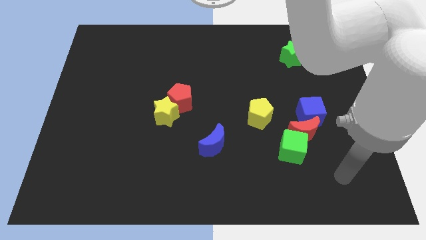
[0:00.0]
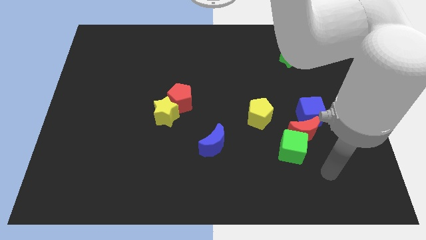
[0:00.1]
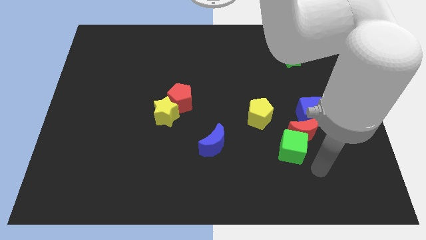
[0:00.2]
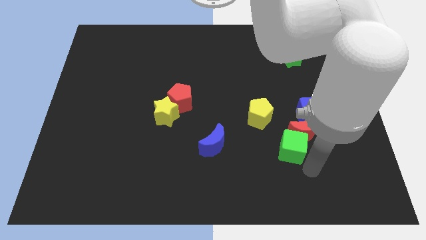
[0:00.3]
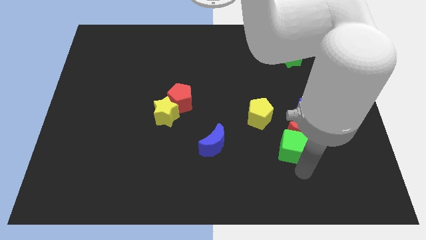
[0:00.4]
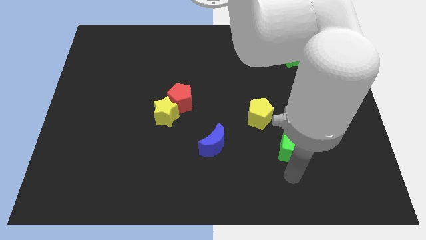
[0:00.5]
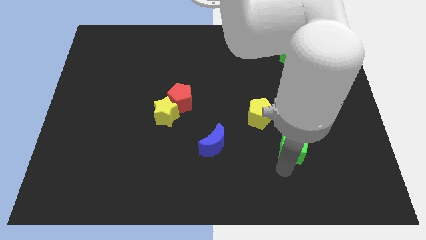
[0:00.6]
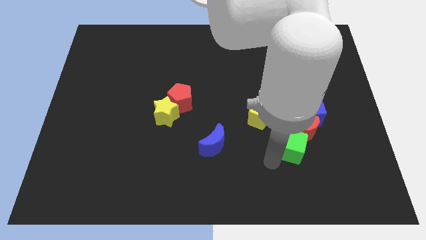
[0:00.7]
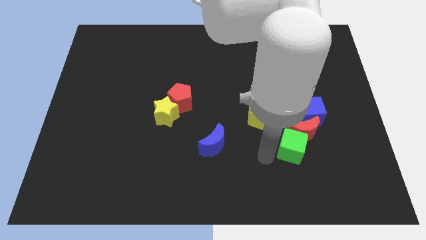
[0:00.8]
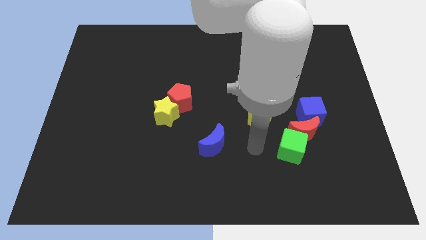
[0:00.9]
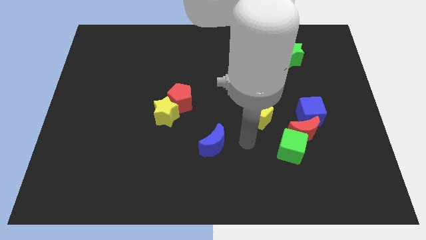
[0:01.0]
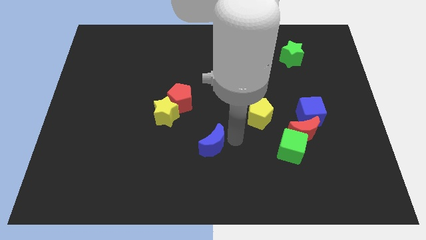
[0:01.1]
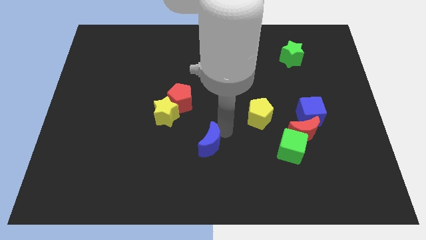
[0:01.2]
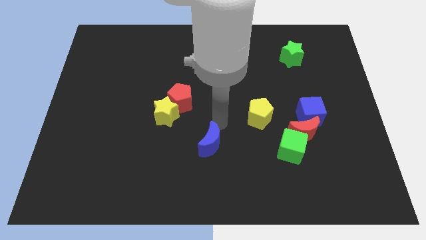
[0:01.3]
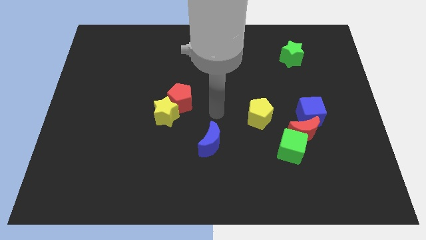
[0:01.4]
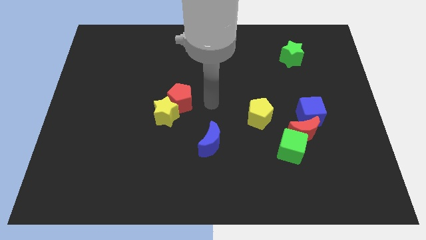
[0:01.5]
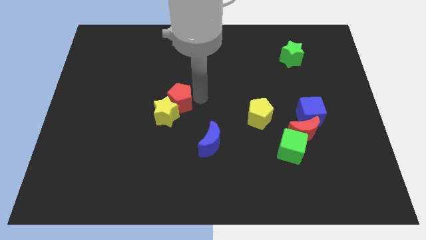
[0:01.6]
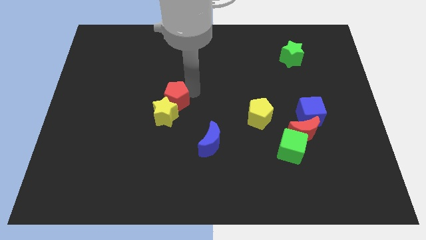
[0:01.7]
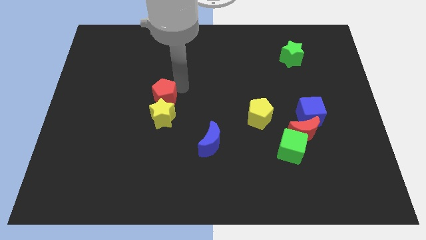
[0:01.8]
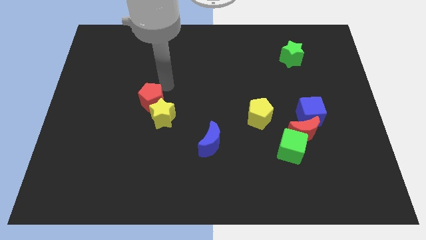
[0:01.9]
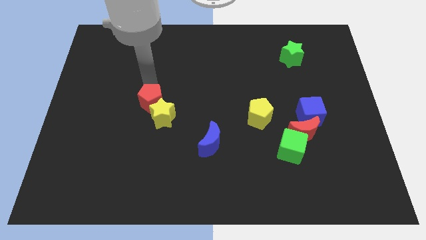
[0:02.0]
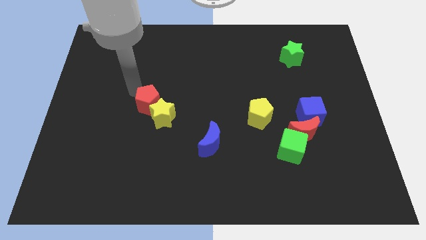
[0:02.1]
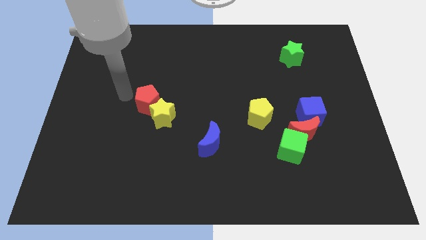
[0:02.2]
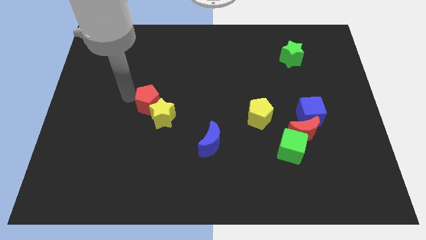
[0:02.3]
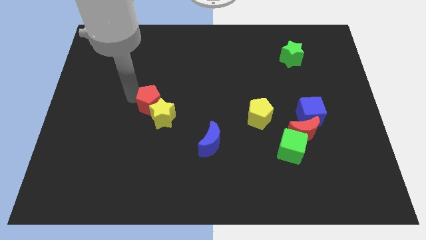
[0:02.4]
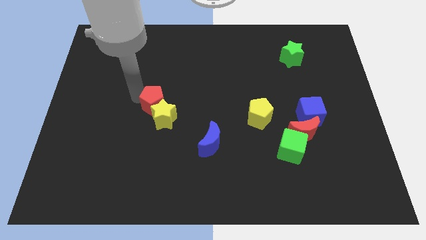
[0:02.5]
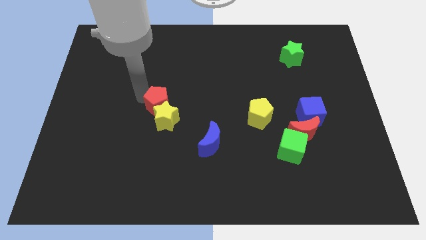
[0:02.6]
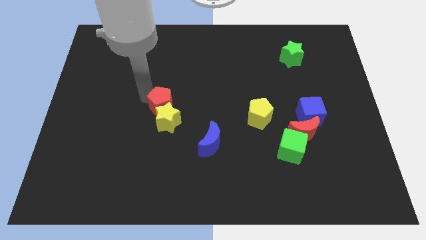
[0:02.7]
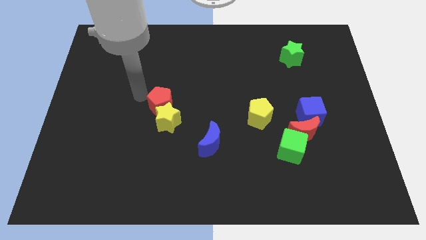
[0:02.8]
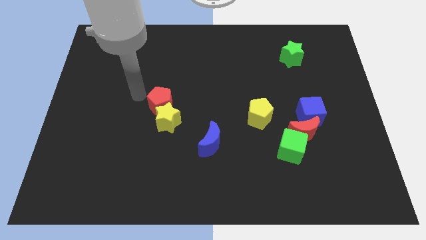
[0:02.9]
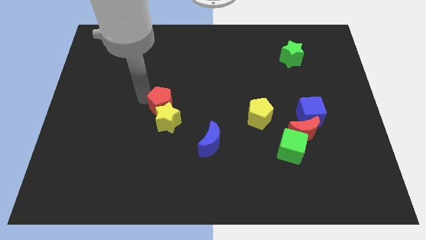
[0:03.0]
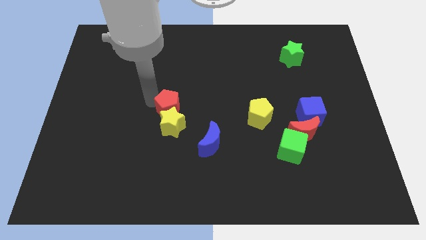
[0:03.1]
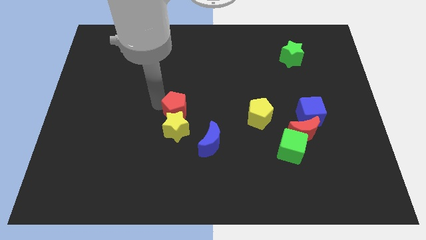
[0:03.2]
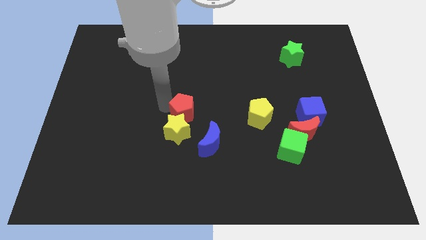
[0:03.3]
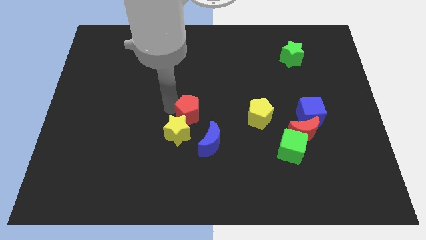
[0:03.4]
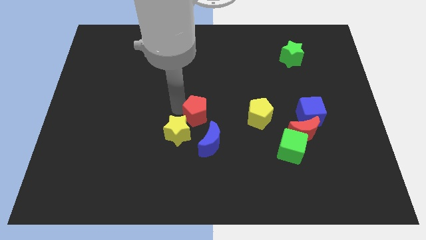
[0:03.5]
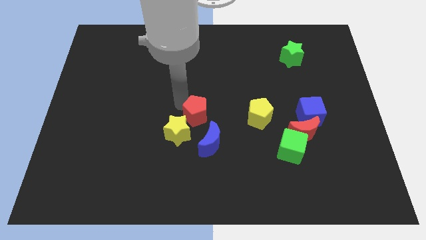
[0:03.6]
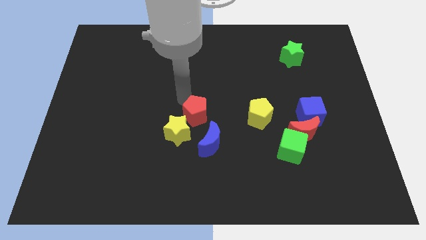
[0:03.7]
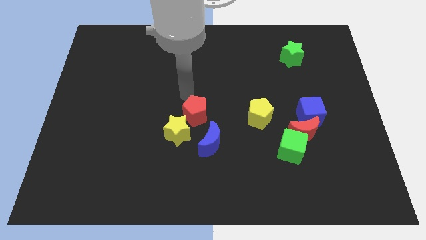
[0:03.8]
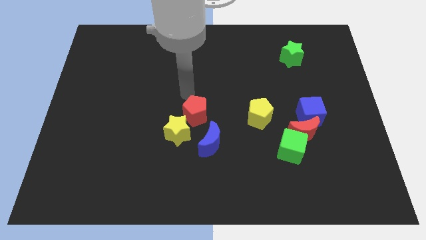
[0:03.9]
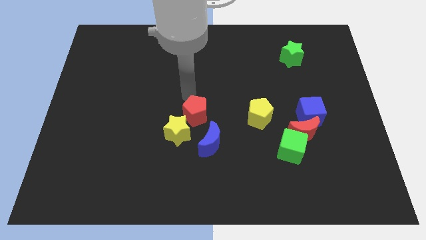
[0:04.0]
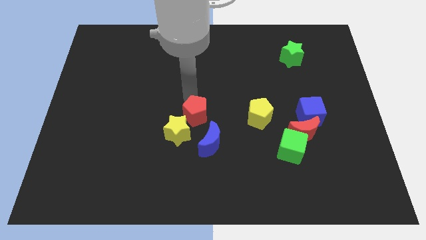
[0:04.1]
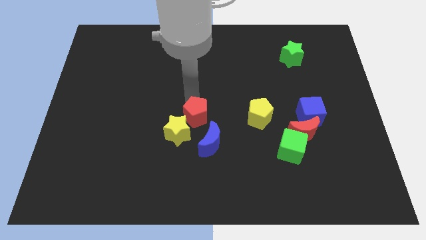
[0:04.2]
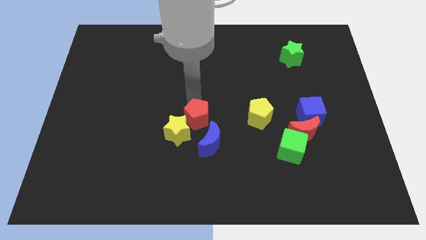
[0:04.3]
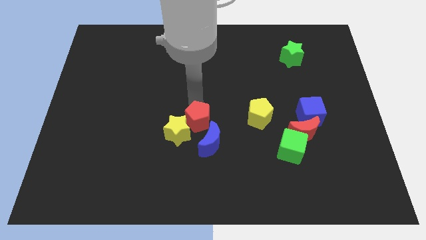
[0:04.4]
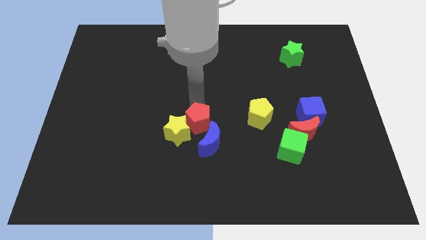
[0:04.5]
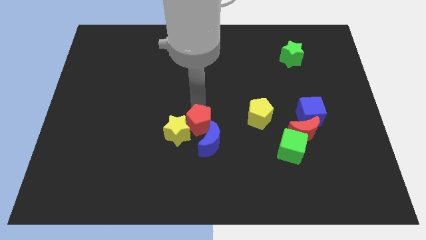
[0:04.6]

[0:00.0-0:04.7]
put the red pentagon to the blue moon

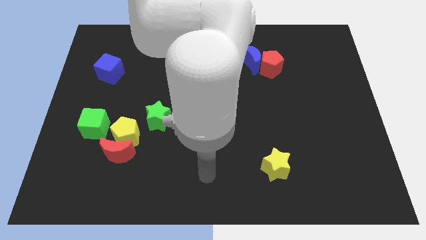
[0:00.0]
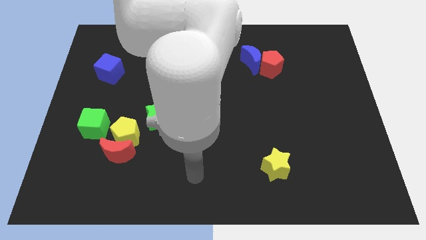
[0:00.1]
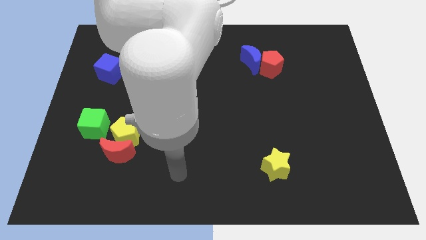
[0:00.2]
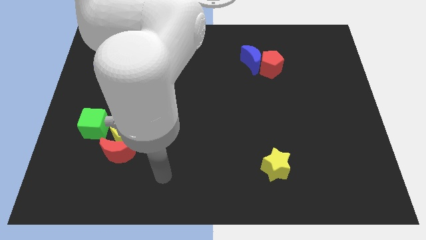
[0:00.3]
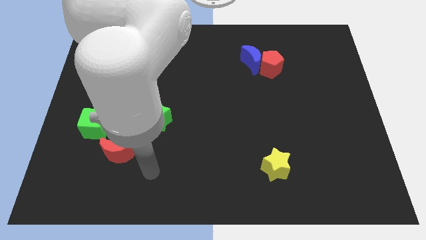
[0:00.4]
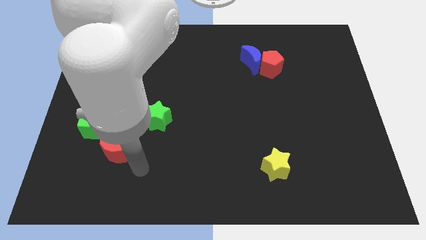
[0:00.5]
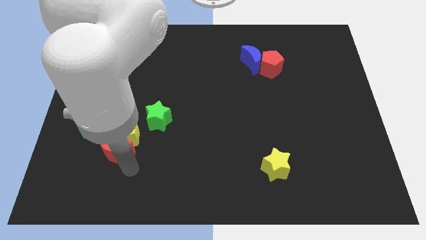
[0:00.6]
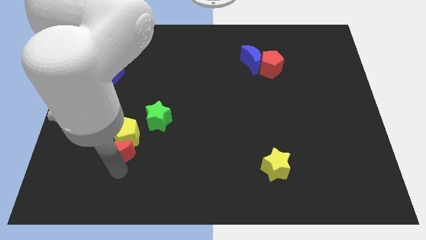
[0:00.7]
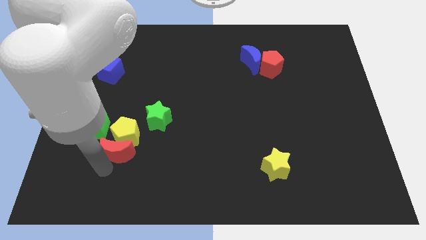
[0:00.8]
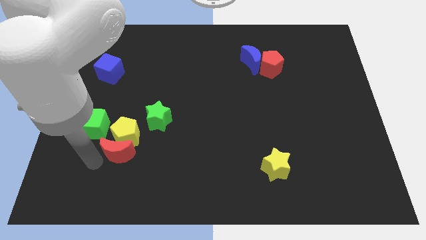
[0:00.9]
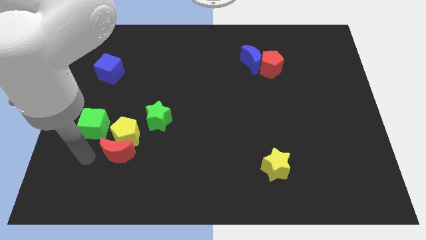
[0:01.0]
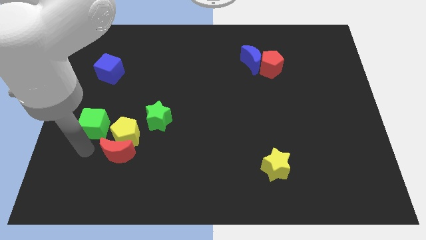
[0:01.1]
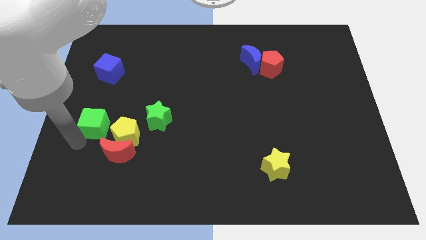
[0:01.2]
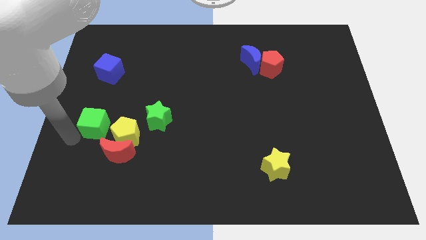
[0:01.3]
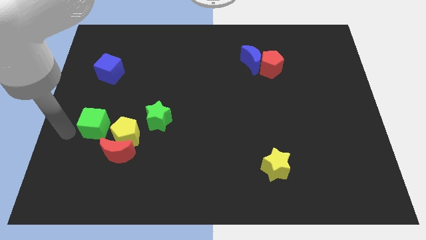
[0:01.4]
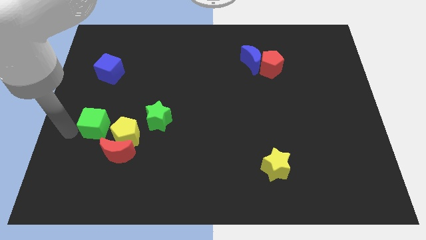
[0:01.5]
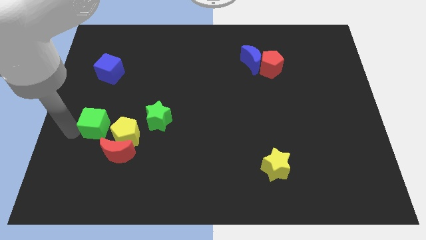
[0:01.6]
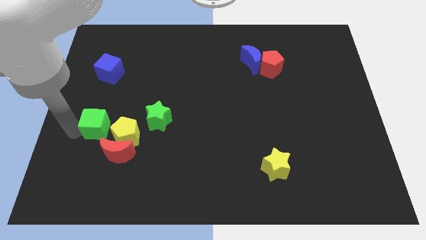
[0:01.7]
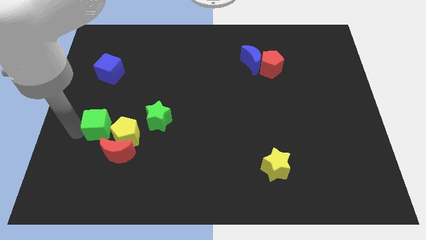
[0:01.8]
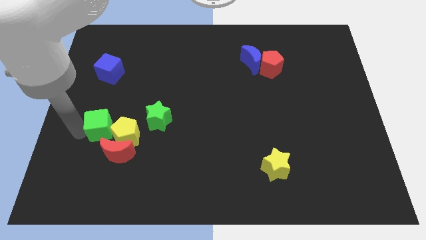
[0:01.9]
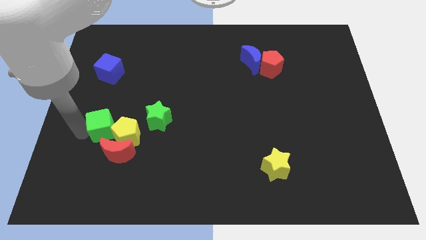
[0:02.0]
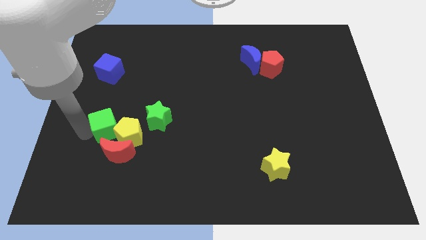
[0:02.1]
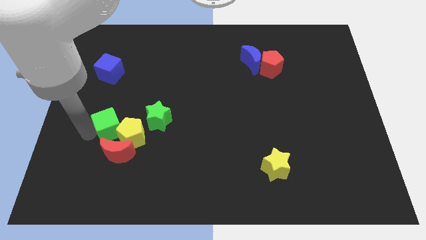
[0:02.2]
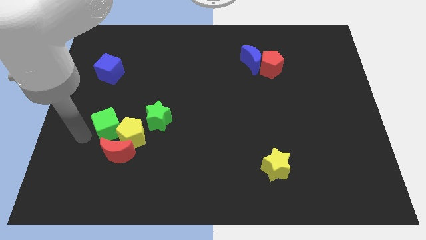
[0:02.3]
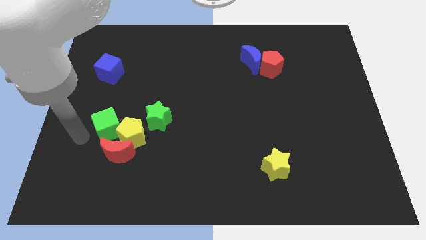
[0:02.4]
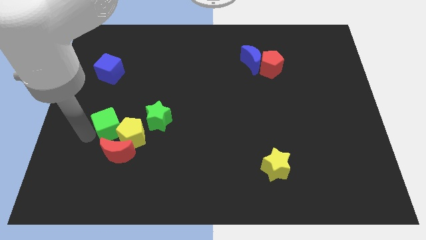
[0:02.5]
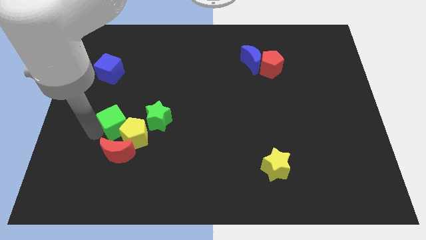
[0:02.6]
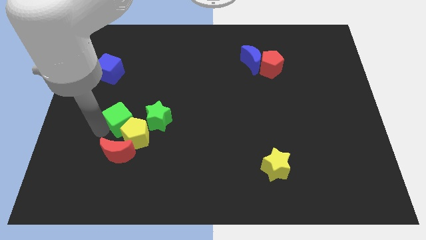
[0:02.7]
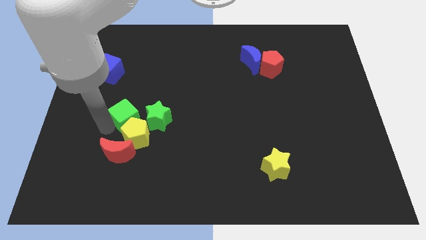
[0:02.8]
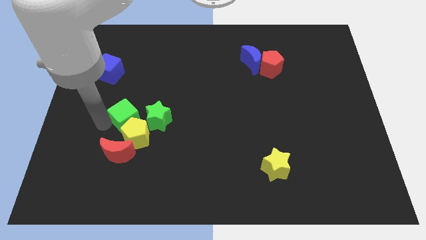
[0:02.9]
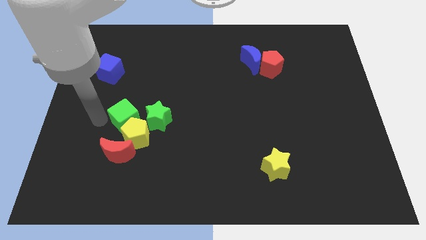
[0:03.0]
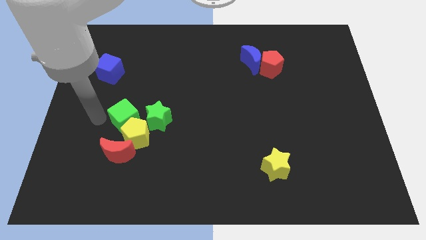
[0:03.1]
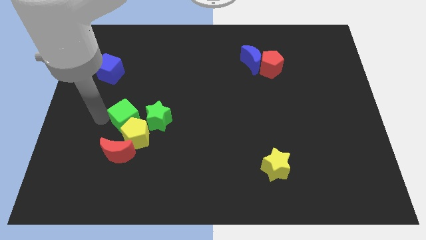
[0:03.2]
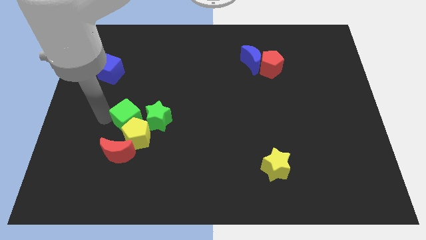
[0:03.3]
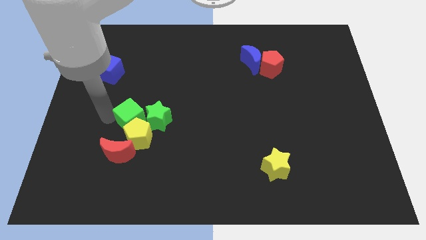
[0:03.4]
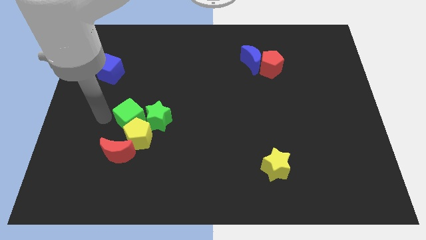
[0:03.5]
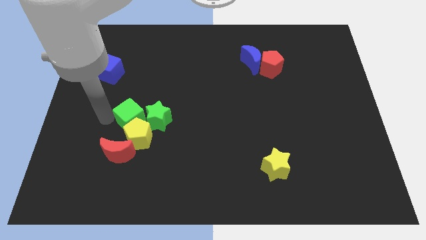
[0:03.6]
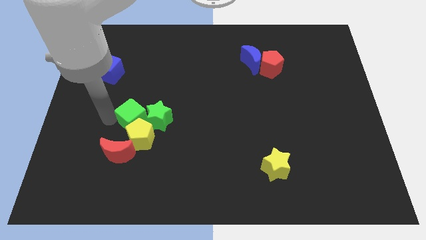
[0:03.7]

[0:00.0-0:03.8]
push the green cube close to the green star
